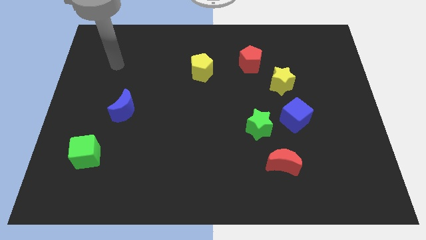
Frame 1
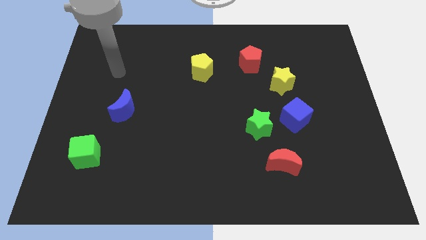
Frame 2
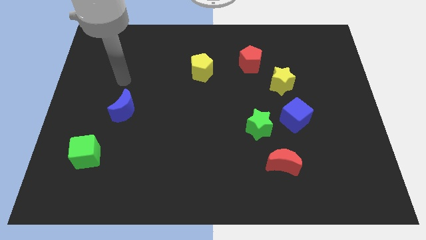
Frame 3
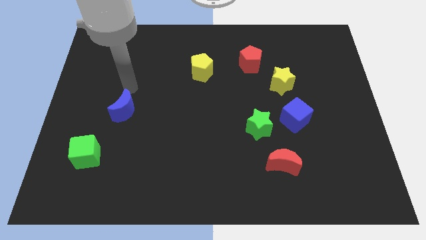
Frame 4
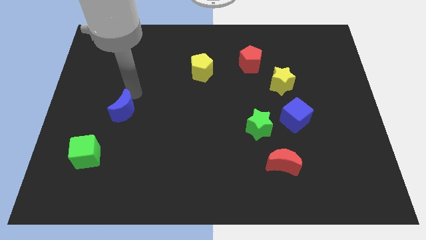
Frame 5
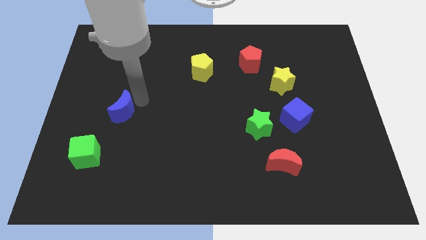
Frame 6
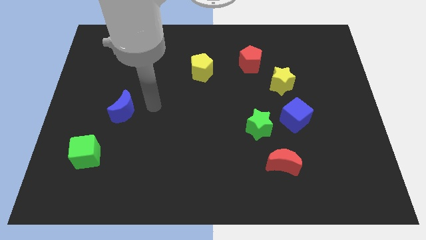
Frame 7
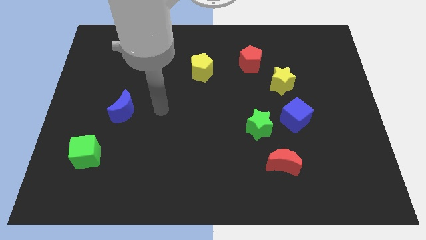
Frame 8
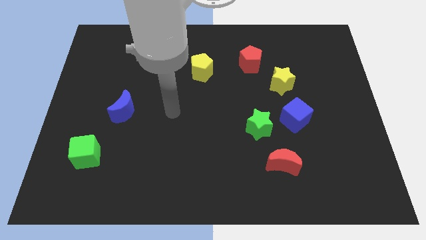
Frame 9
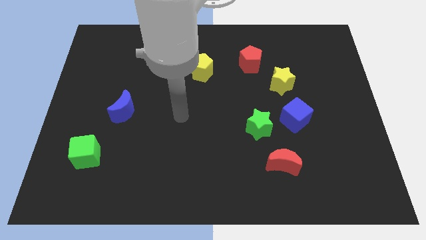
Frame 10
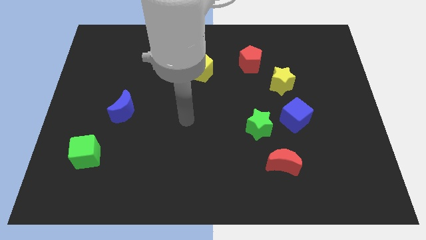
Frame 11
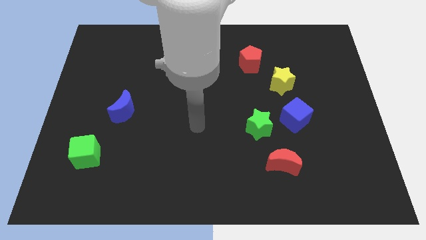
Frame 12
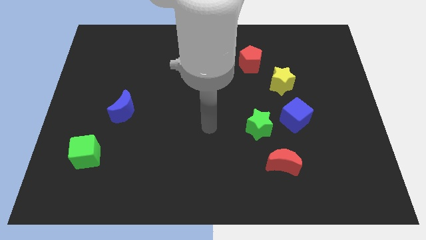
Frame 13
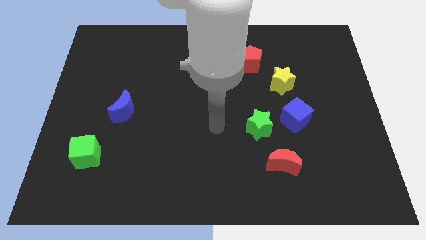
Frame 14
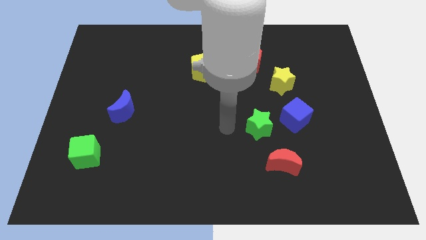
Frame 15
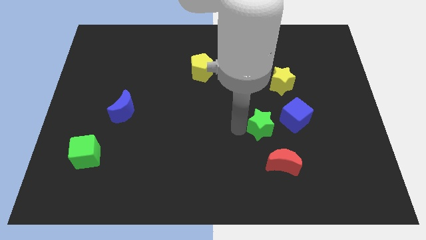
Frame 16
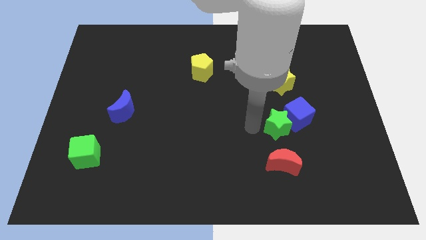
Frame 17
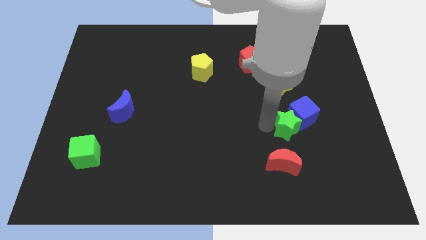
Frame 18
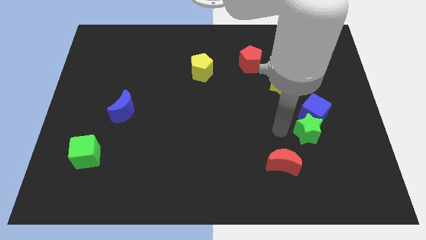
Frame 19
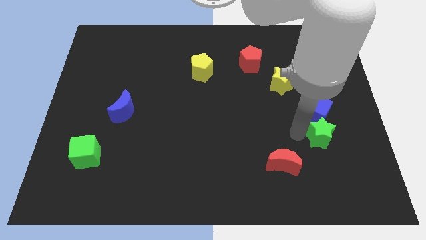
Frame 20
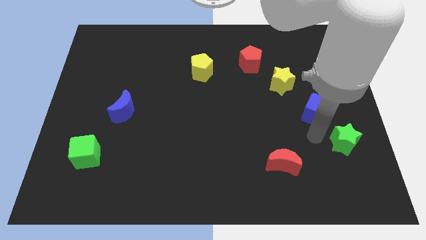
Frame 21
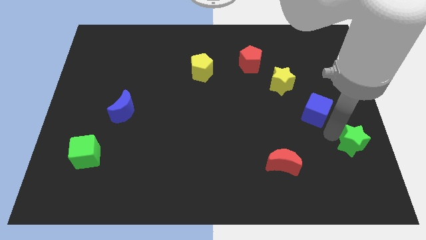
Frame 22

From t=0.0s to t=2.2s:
pull the blue cube apart from the green star

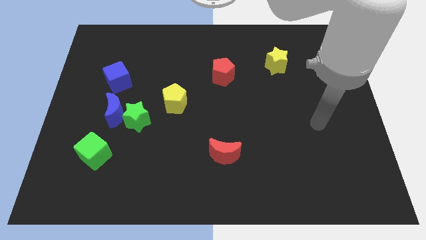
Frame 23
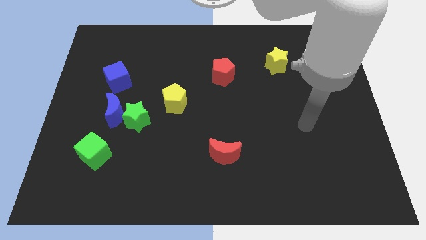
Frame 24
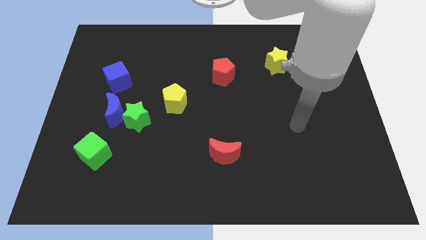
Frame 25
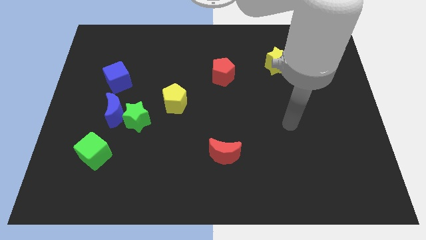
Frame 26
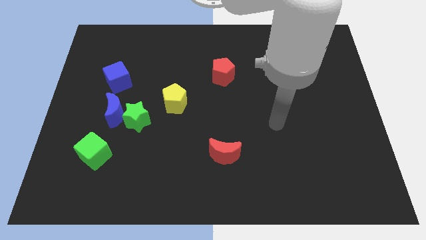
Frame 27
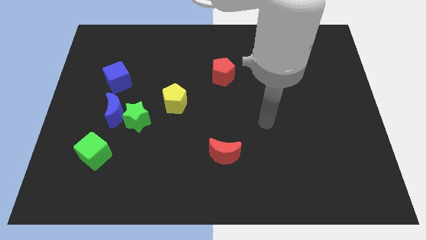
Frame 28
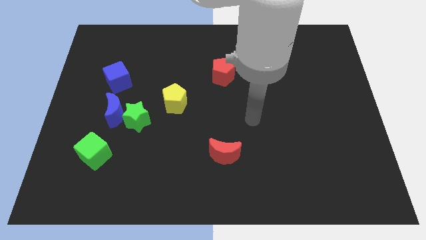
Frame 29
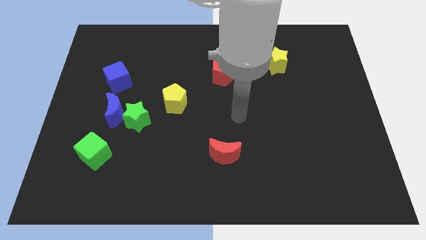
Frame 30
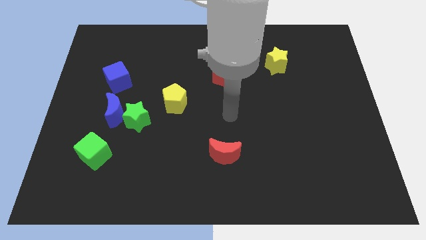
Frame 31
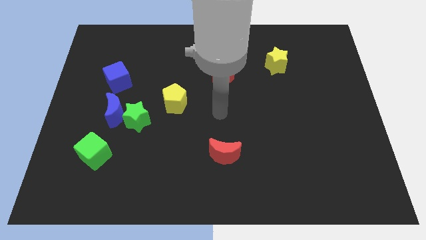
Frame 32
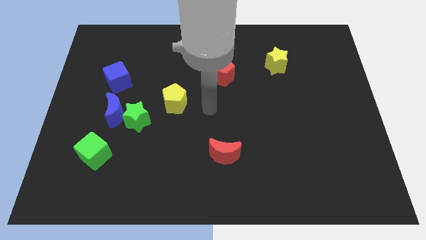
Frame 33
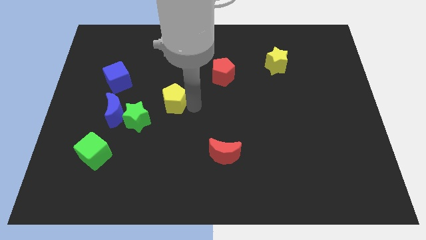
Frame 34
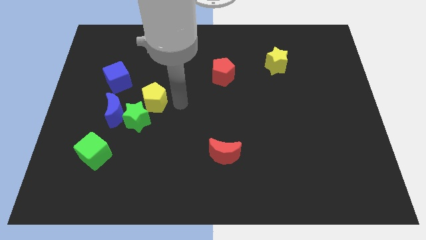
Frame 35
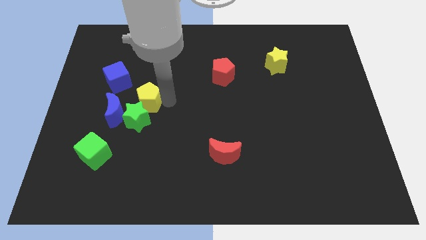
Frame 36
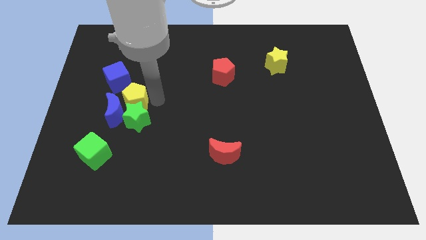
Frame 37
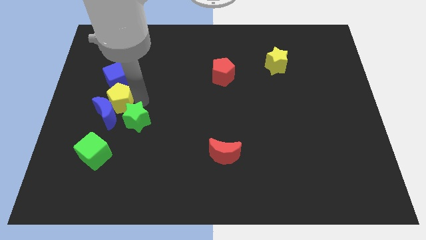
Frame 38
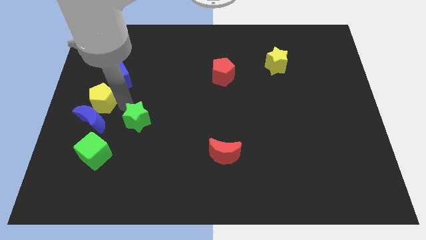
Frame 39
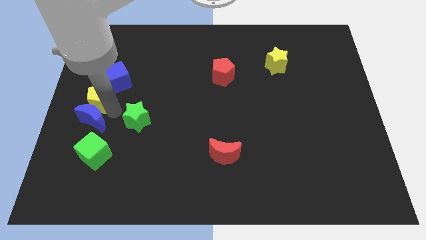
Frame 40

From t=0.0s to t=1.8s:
move the green star away from the blue moon and yellow pentagon

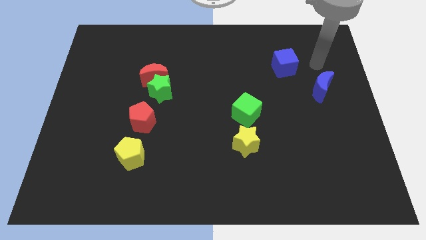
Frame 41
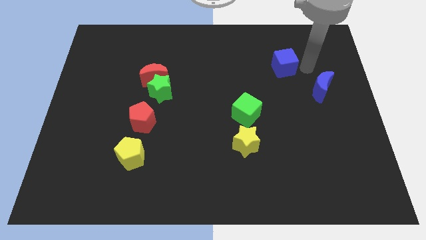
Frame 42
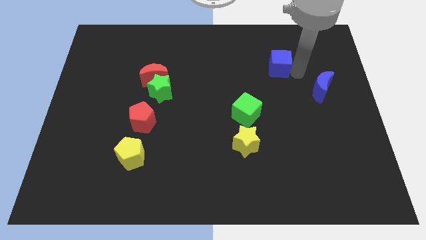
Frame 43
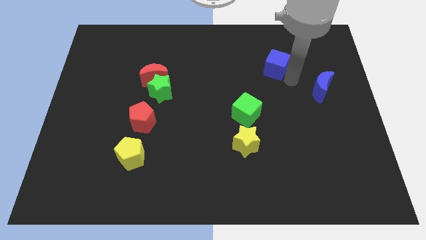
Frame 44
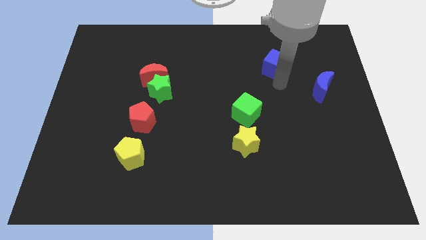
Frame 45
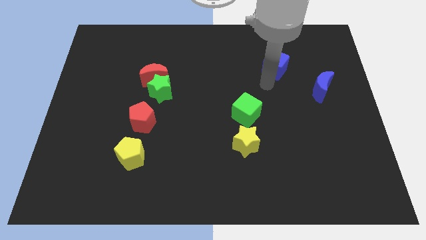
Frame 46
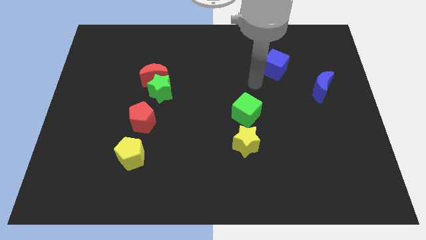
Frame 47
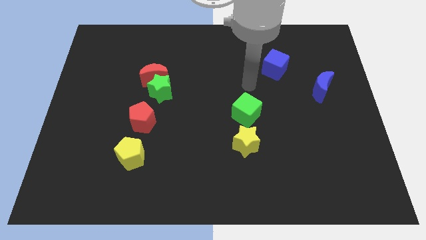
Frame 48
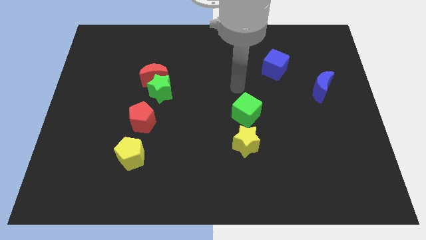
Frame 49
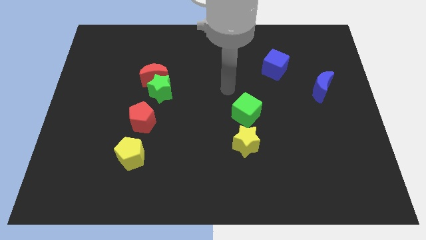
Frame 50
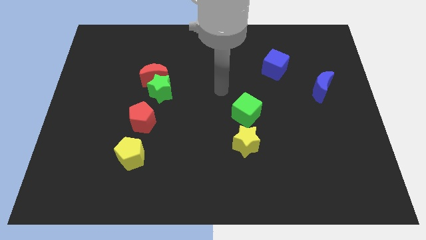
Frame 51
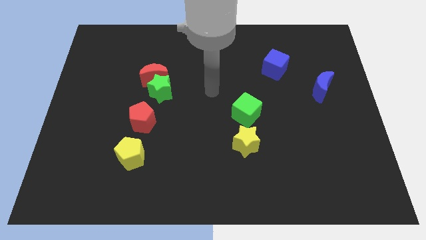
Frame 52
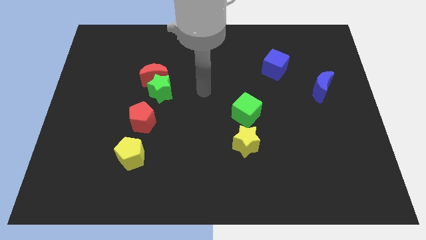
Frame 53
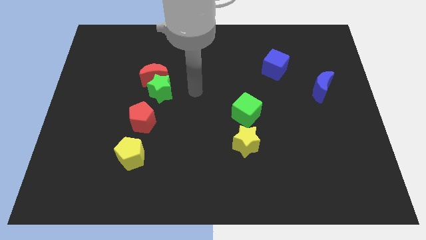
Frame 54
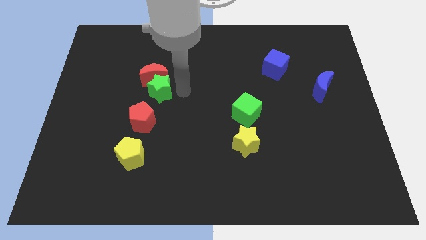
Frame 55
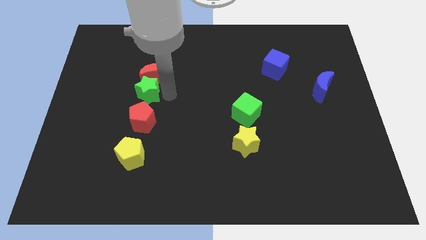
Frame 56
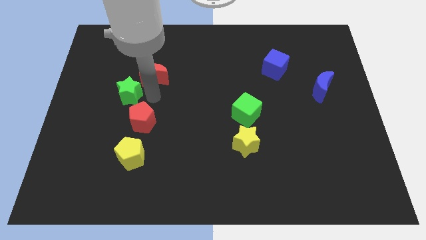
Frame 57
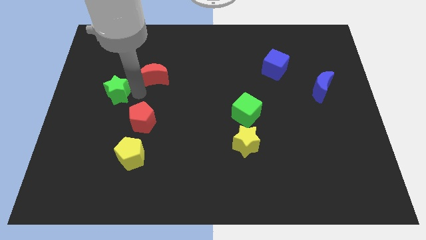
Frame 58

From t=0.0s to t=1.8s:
pull the red moon apart from the green star

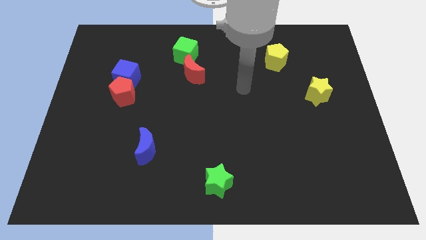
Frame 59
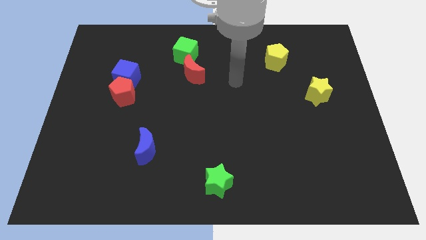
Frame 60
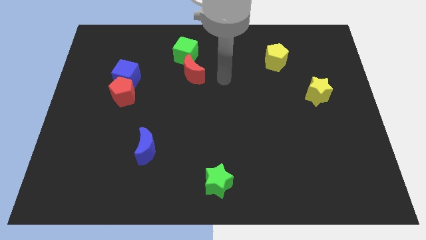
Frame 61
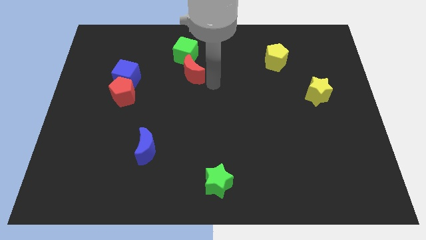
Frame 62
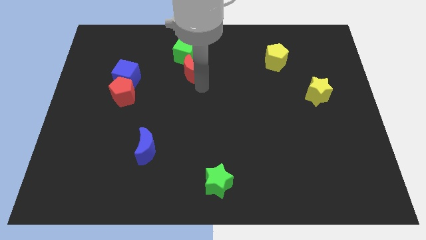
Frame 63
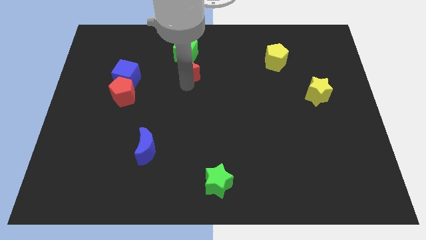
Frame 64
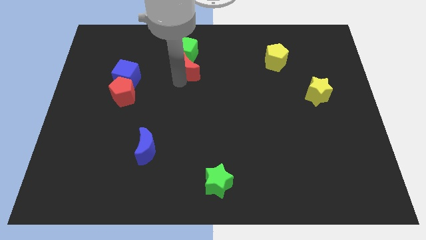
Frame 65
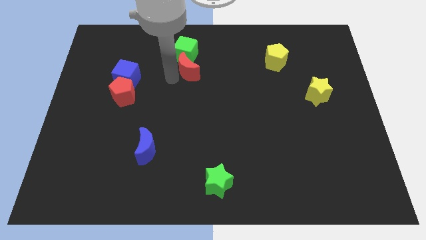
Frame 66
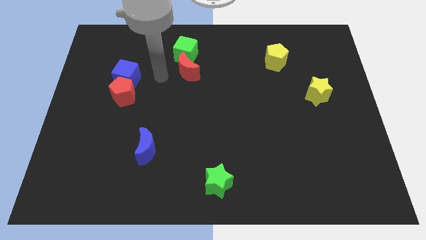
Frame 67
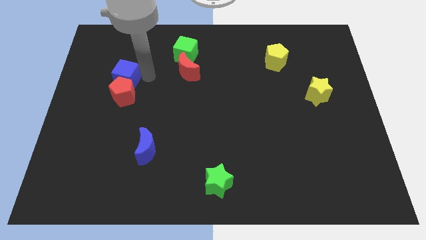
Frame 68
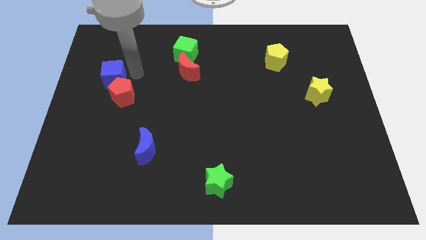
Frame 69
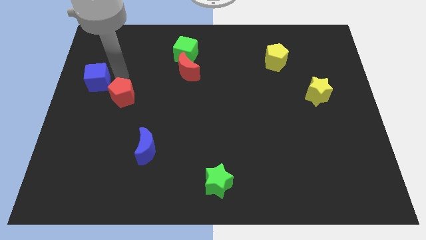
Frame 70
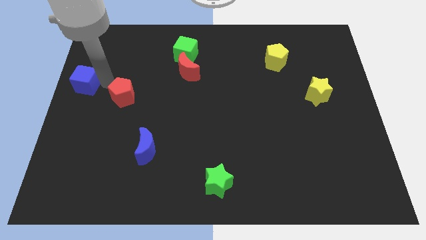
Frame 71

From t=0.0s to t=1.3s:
move the red pentagon away from the blue cube

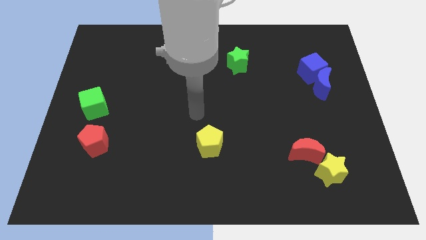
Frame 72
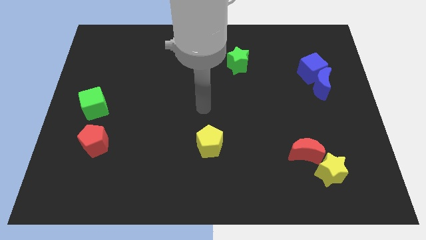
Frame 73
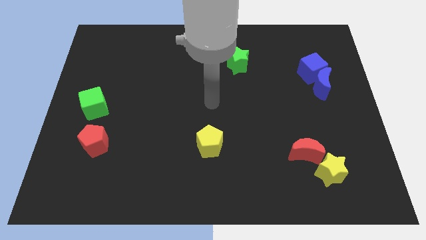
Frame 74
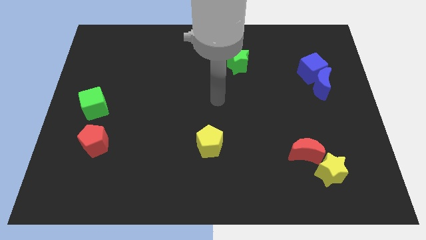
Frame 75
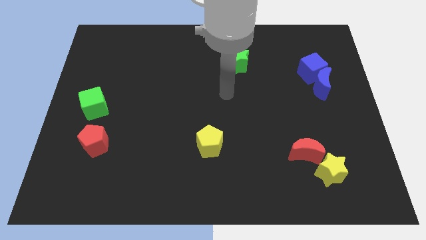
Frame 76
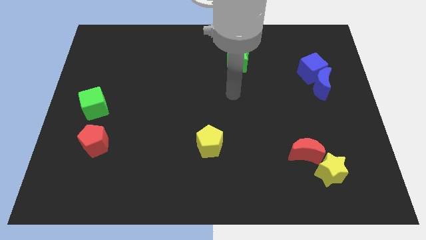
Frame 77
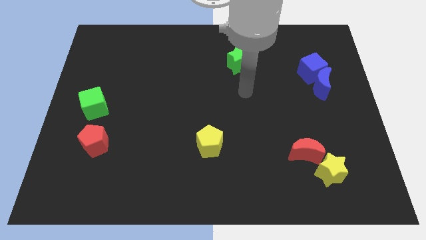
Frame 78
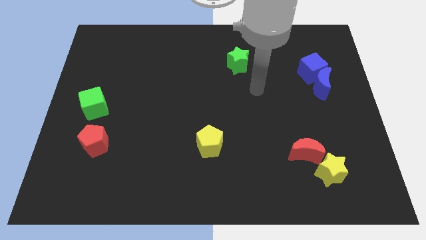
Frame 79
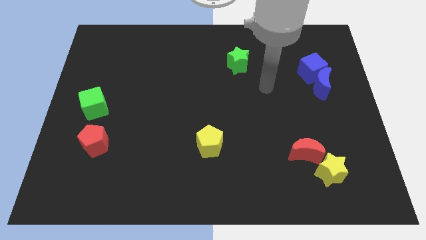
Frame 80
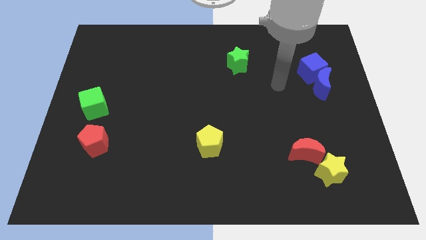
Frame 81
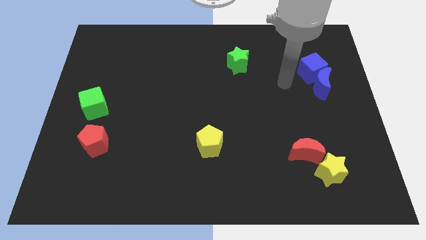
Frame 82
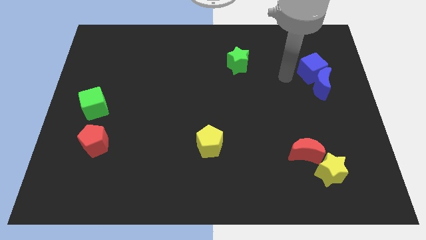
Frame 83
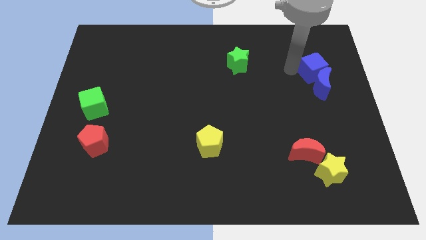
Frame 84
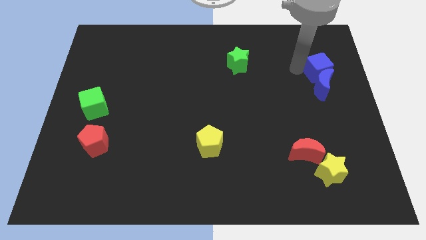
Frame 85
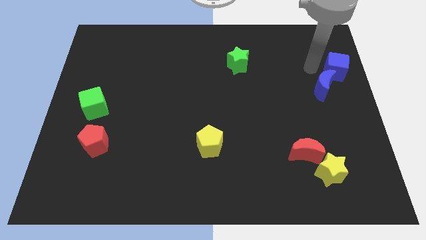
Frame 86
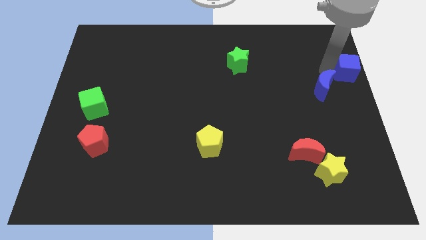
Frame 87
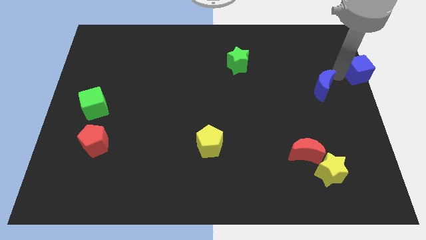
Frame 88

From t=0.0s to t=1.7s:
separate the blue moon from the blue cube

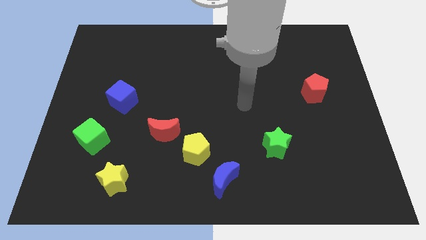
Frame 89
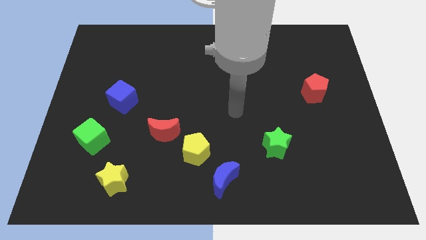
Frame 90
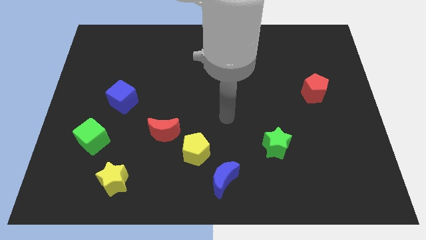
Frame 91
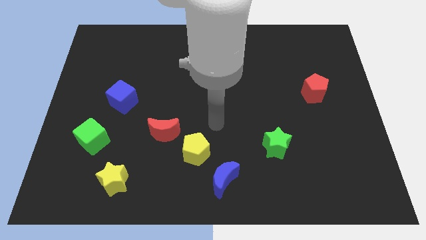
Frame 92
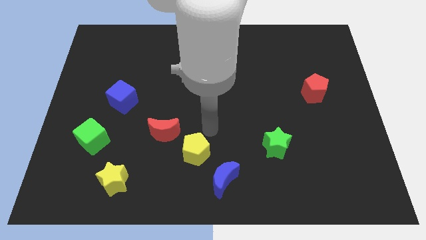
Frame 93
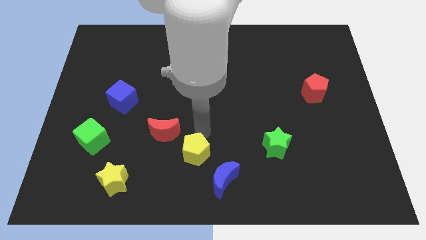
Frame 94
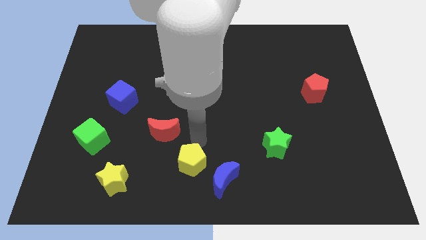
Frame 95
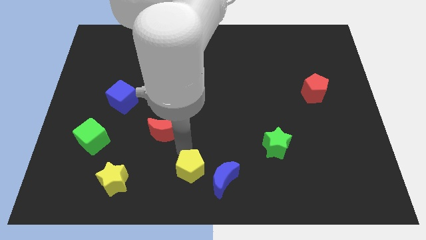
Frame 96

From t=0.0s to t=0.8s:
separate the red moon from the yellow pentagon
